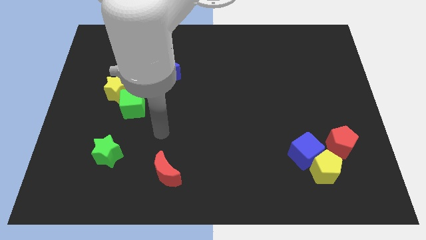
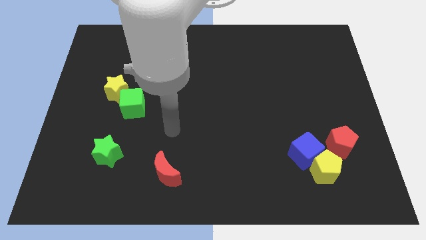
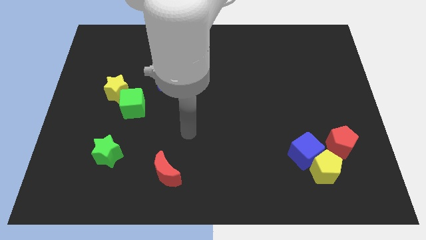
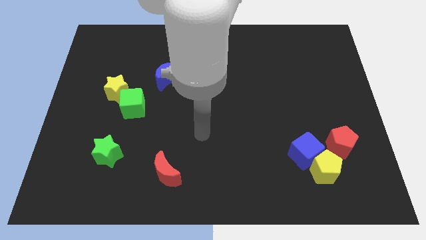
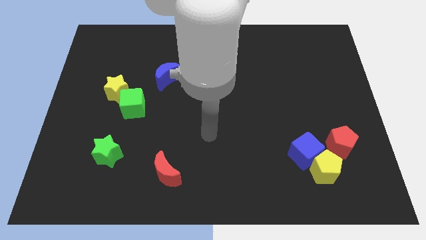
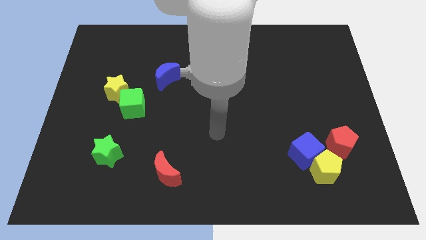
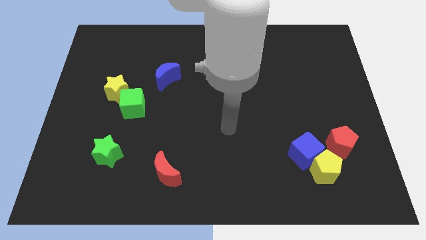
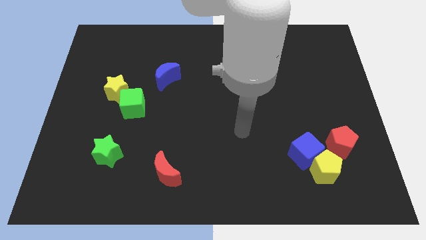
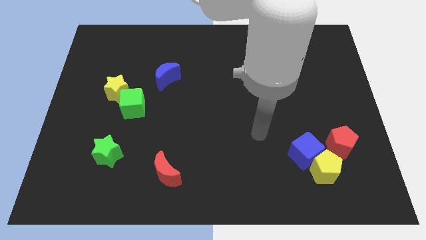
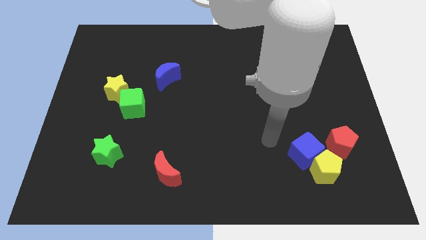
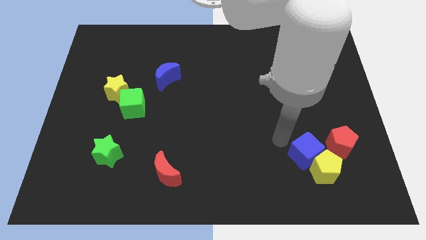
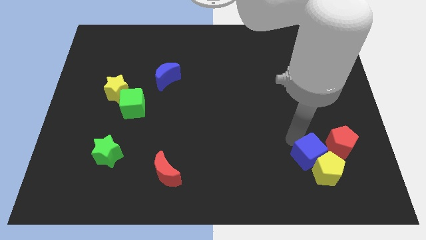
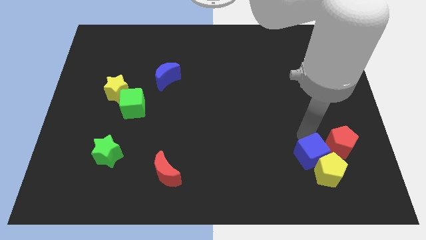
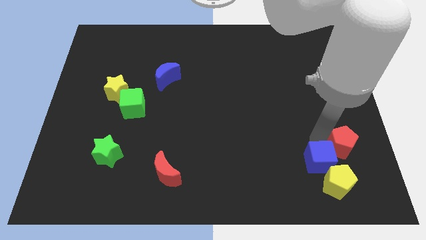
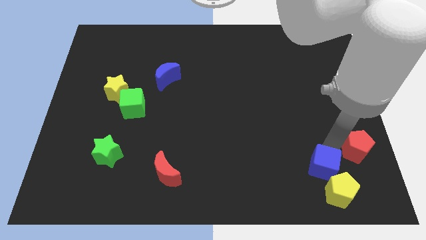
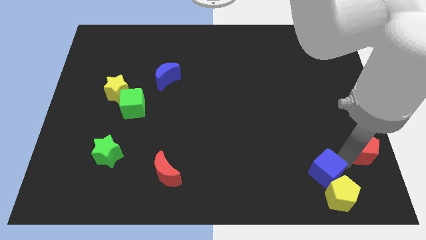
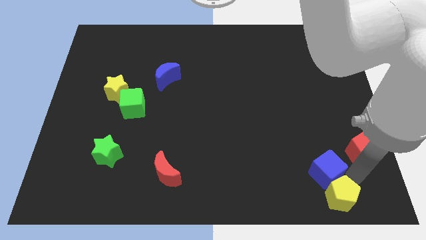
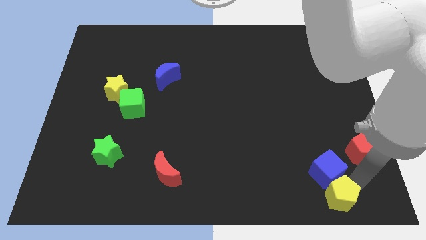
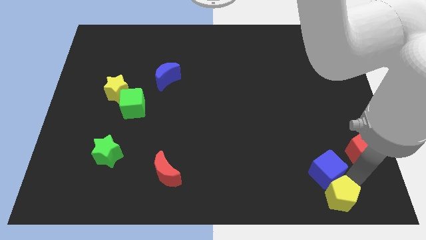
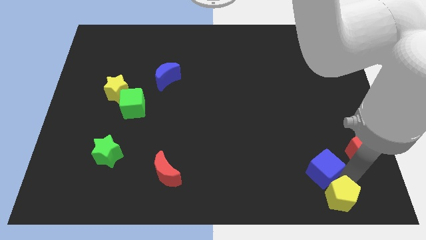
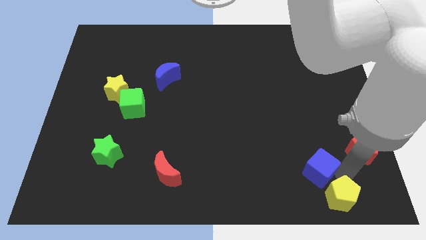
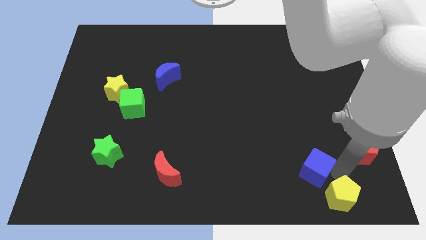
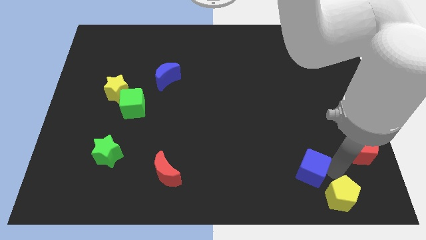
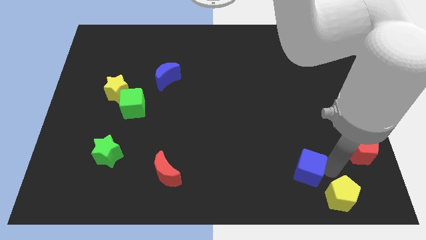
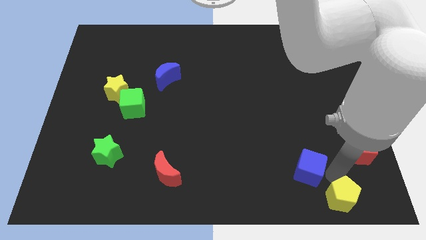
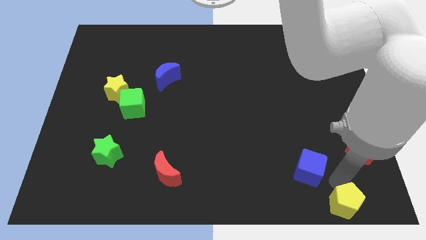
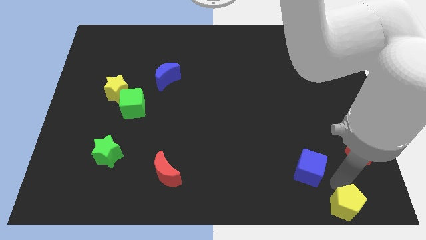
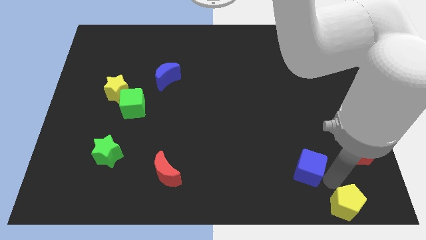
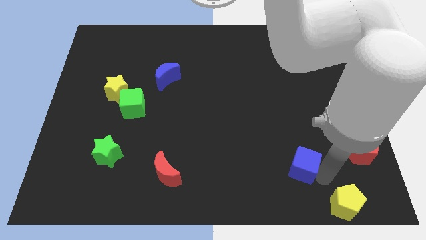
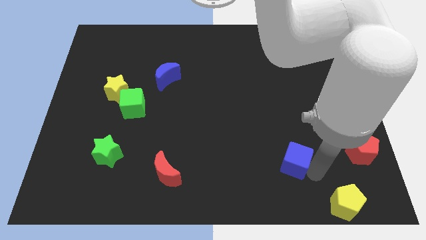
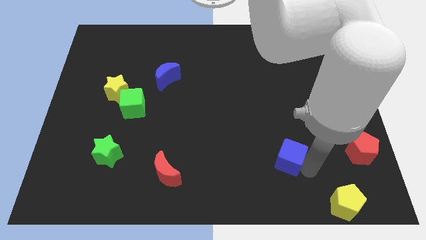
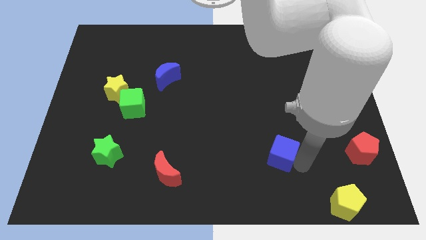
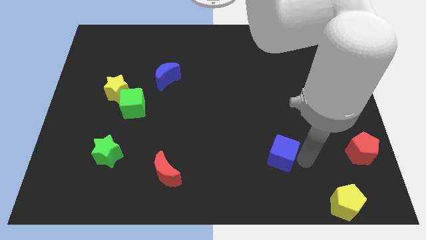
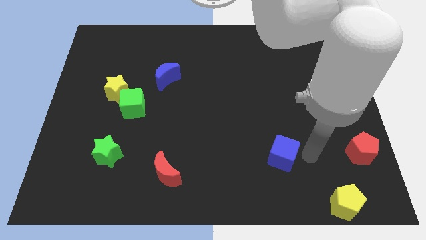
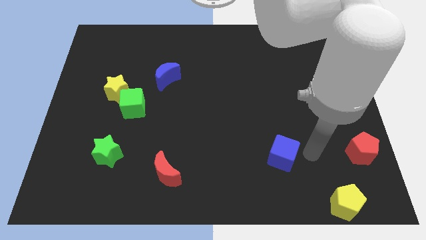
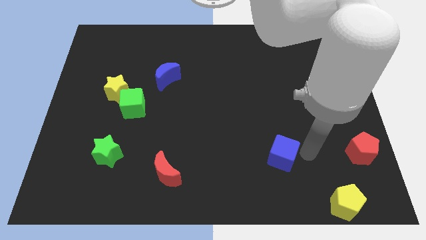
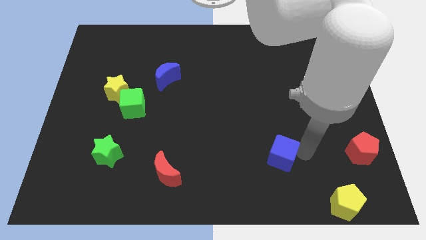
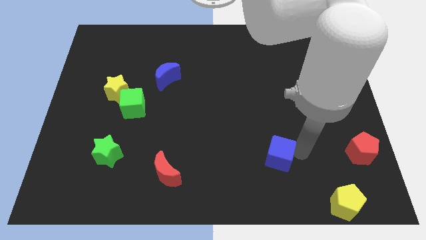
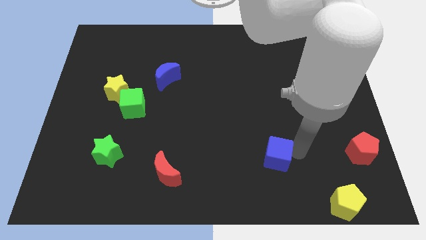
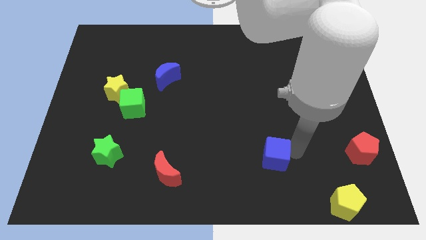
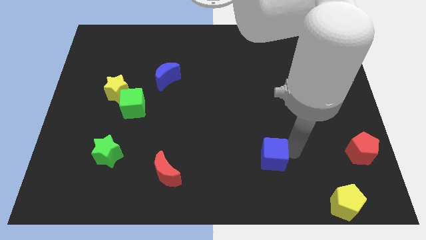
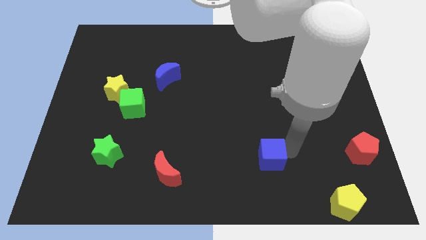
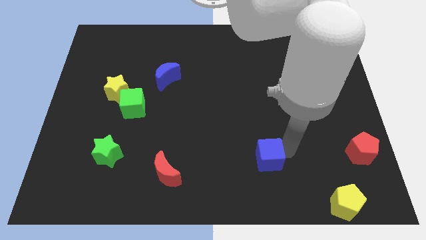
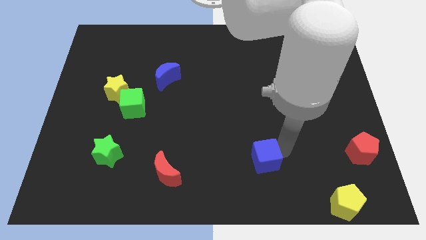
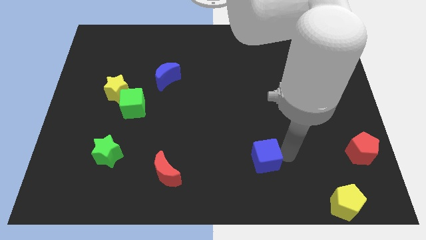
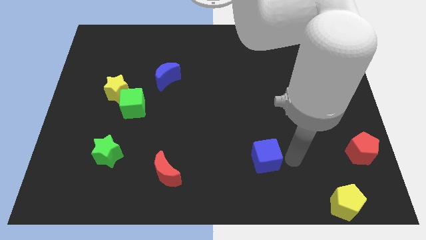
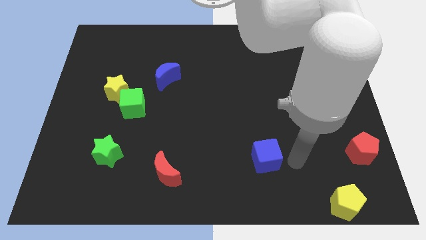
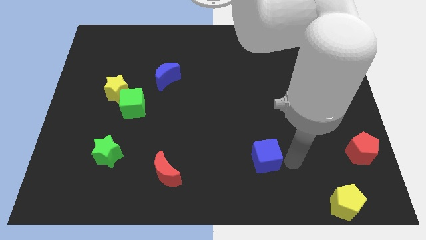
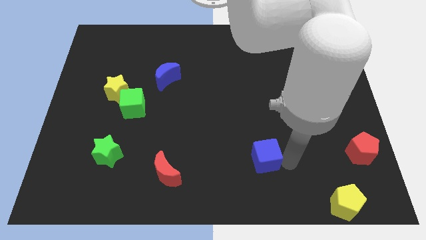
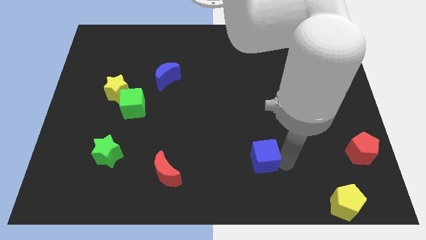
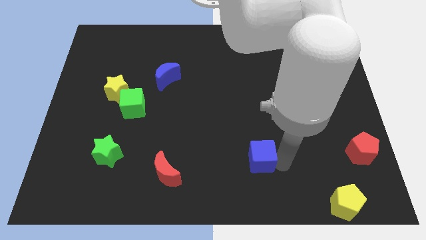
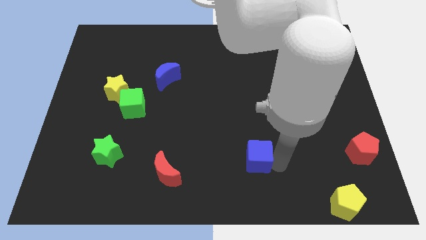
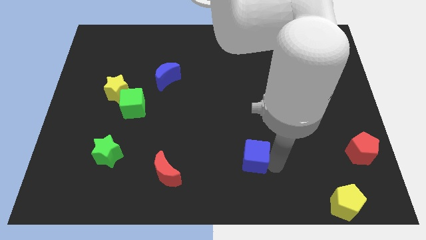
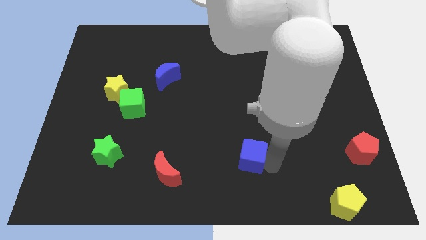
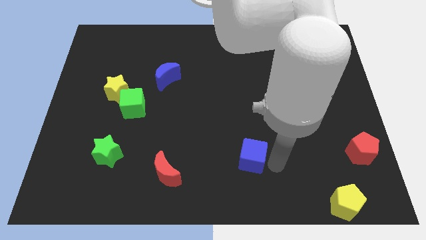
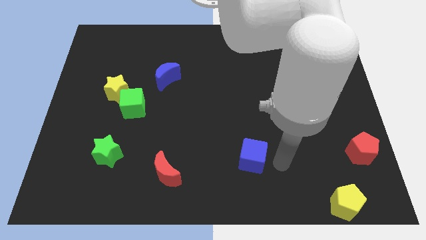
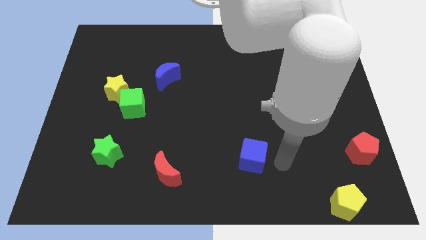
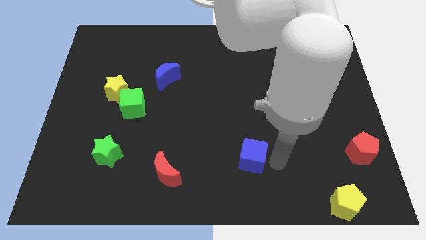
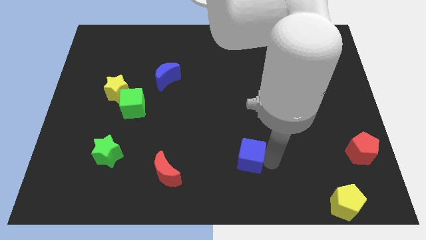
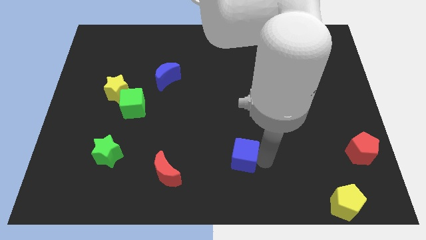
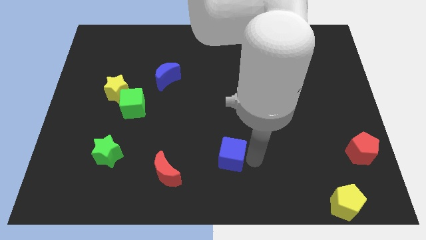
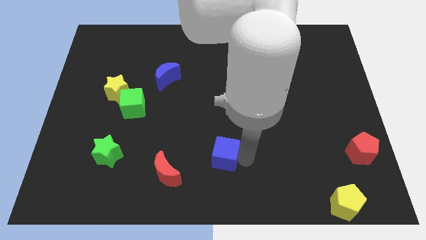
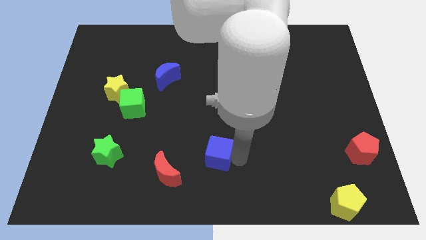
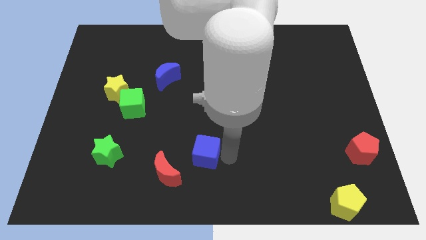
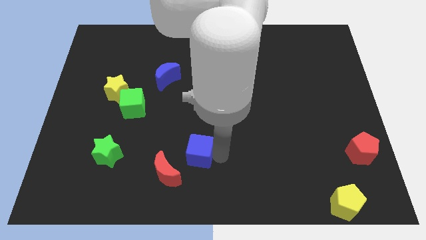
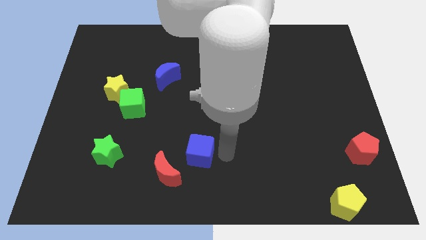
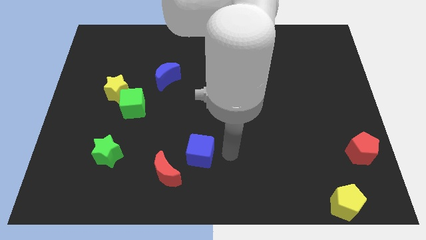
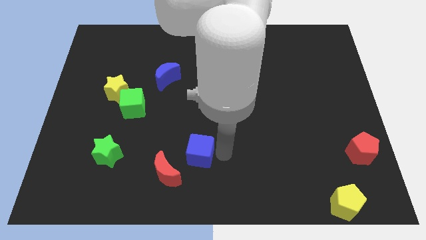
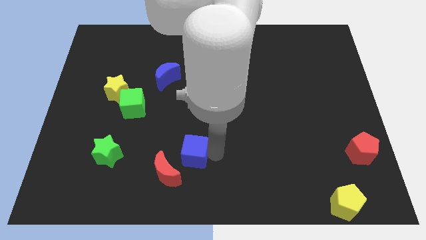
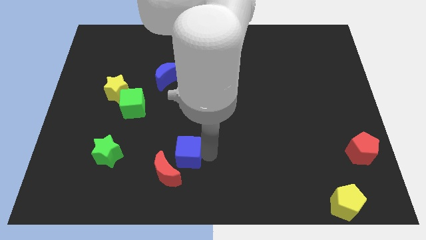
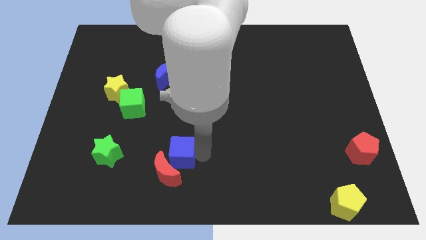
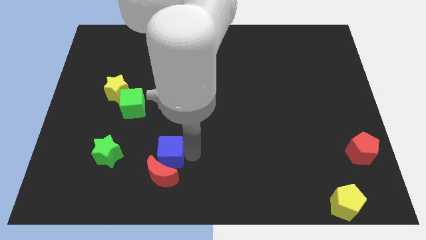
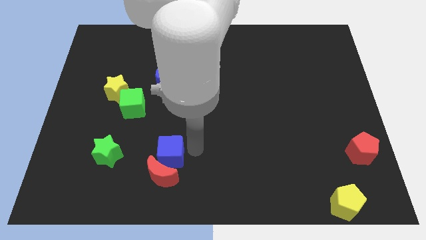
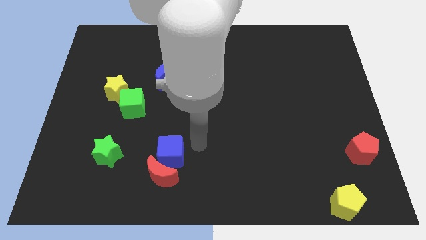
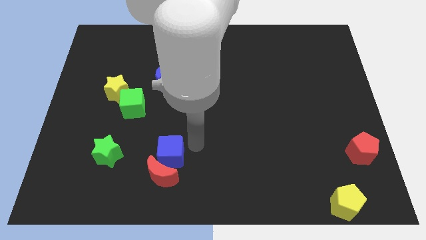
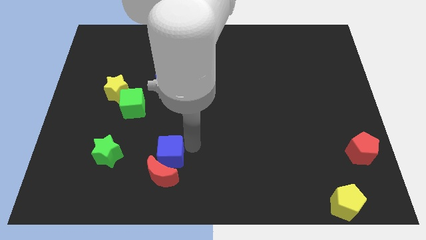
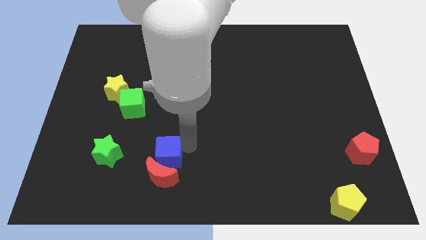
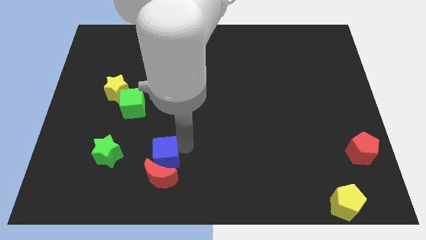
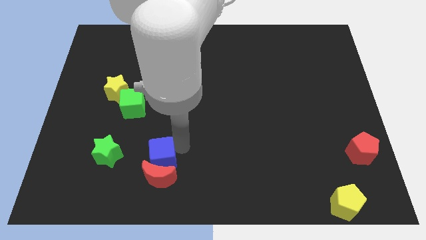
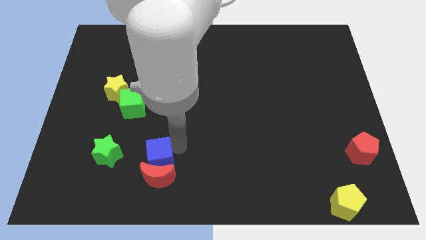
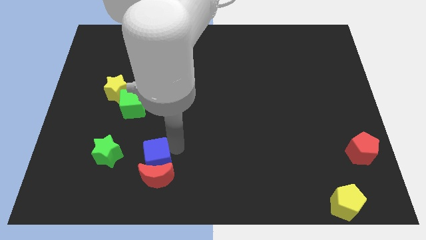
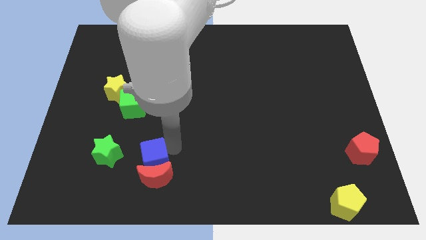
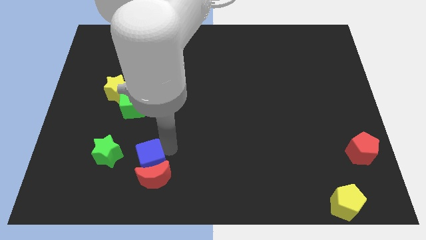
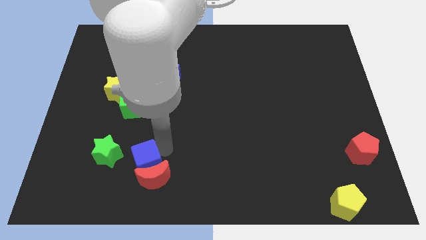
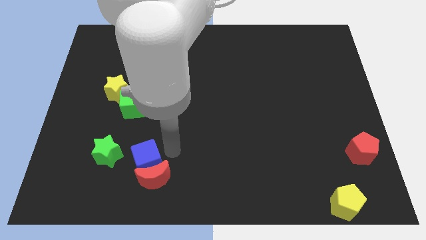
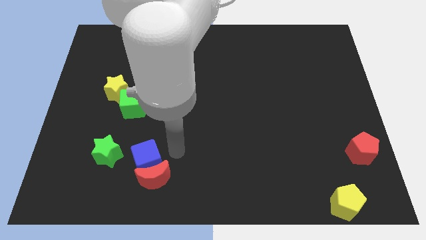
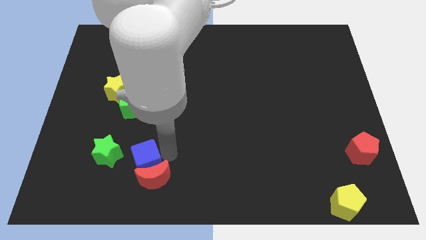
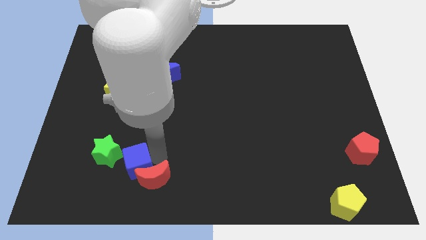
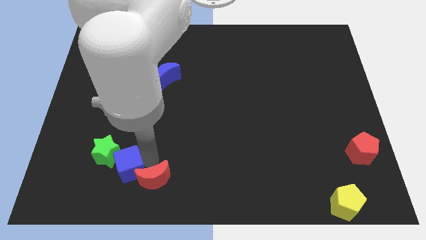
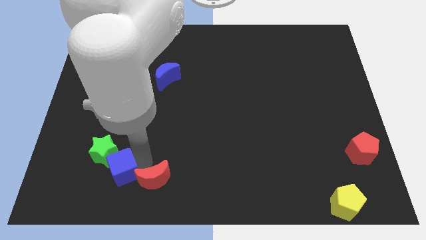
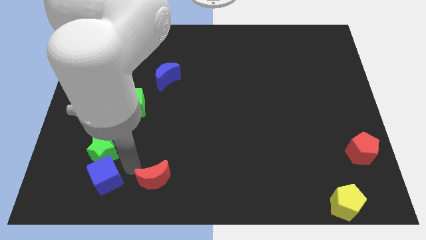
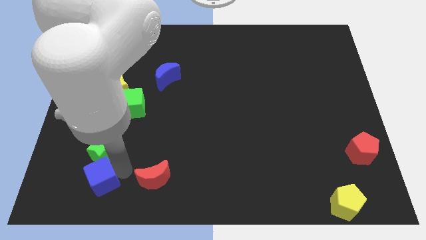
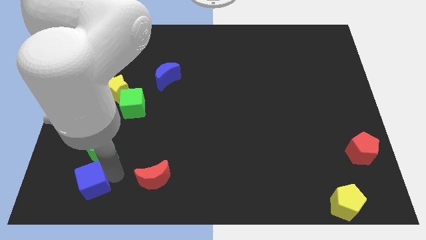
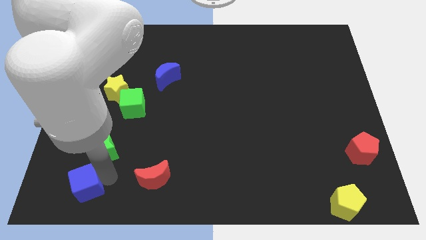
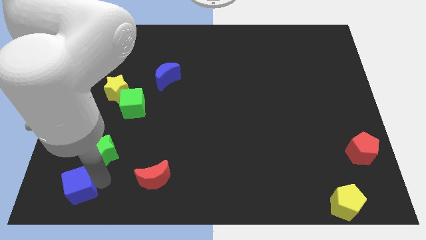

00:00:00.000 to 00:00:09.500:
slide the blue cube to the lower left corner
